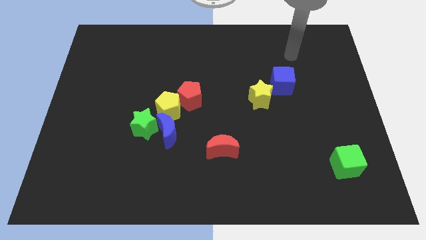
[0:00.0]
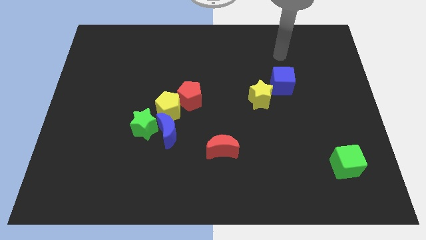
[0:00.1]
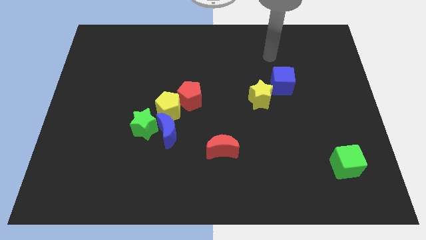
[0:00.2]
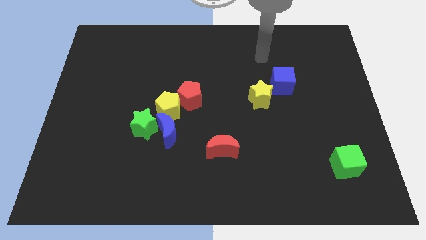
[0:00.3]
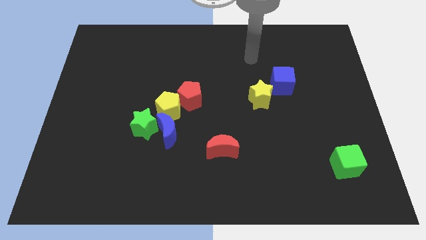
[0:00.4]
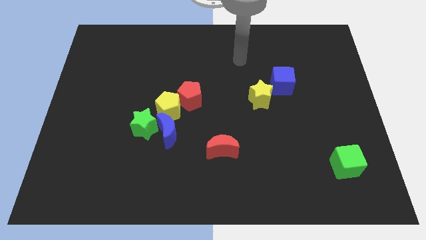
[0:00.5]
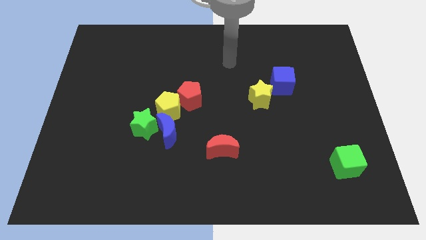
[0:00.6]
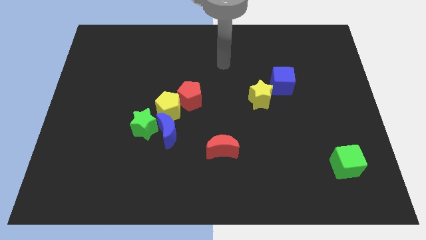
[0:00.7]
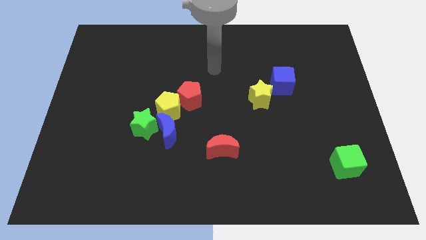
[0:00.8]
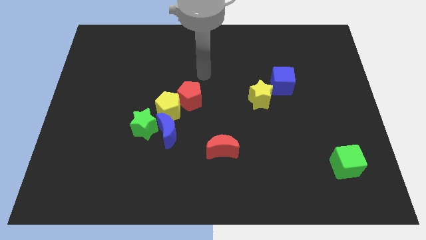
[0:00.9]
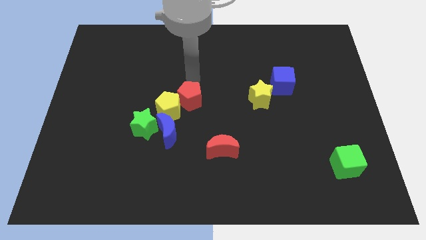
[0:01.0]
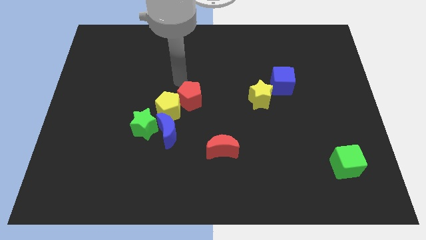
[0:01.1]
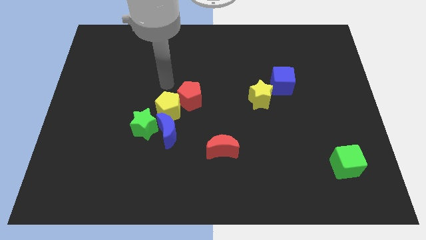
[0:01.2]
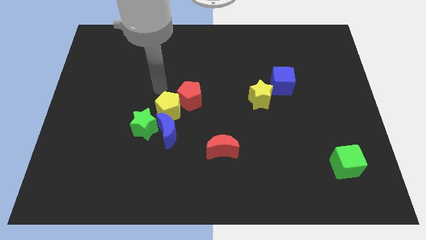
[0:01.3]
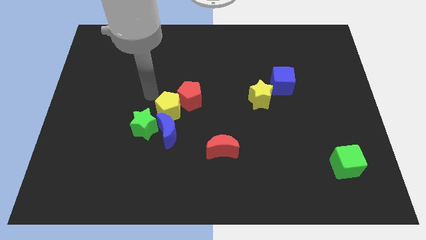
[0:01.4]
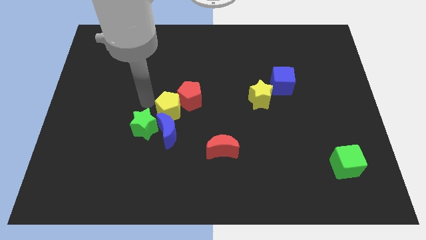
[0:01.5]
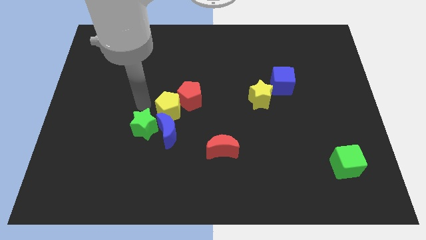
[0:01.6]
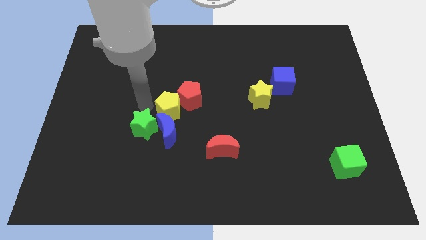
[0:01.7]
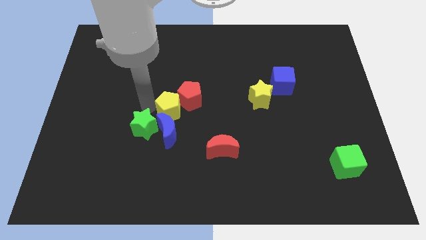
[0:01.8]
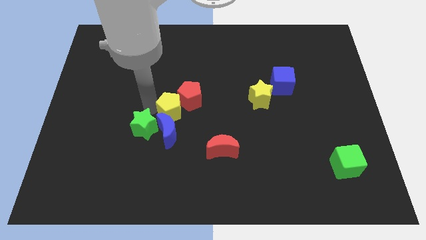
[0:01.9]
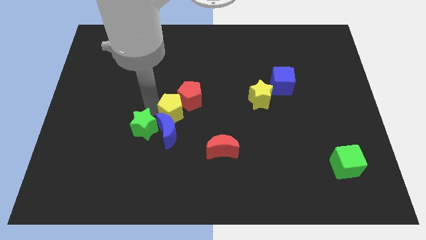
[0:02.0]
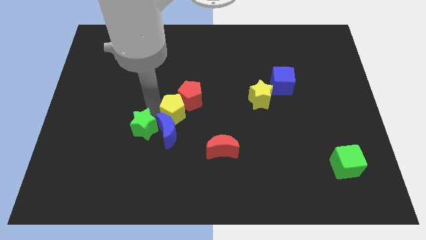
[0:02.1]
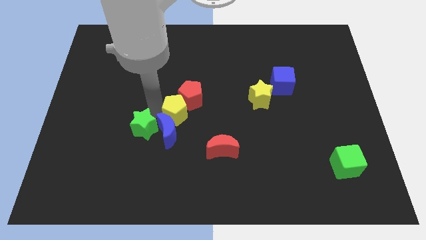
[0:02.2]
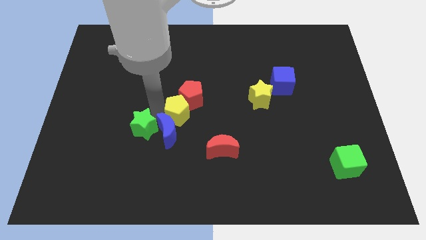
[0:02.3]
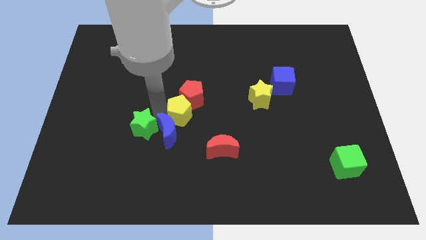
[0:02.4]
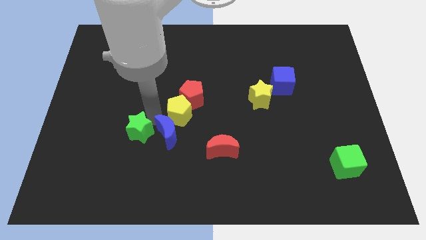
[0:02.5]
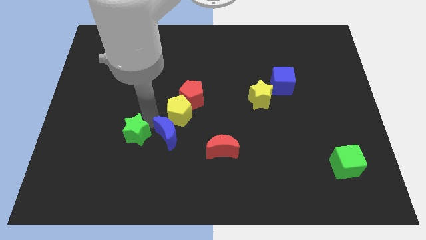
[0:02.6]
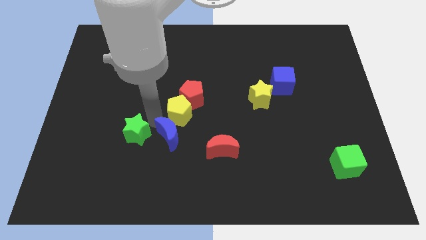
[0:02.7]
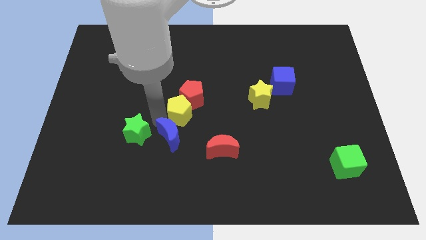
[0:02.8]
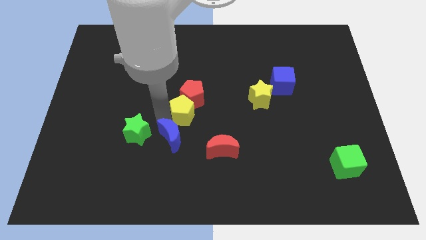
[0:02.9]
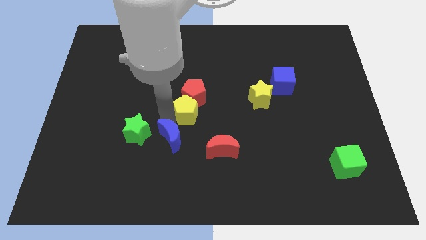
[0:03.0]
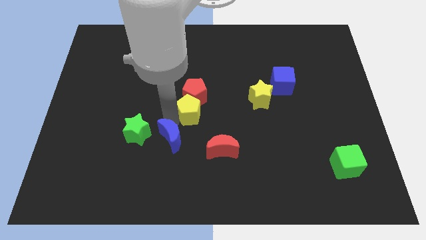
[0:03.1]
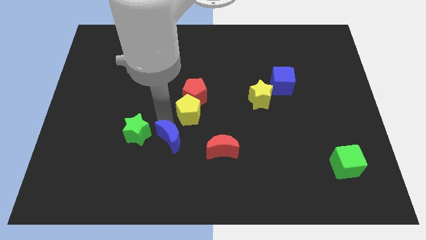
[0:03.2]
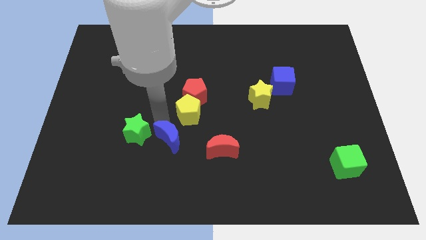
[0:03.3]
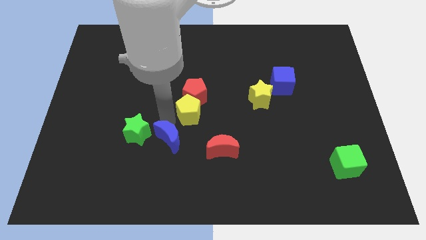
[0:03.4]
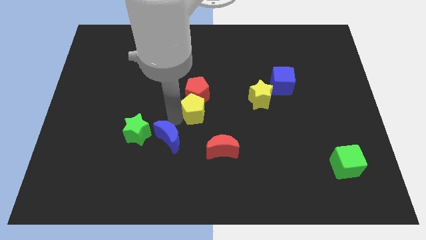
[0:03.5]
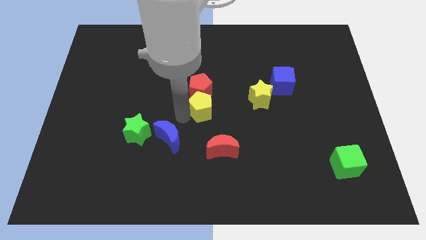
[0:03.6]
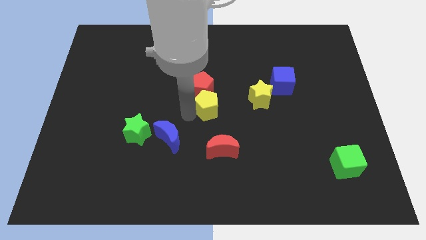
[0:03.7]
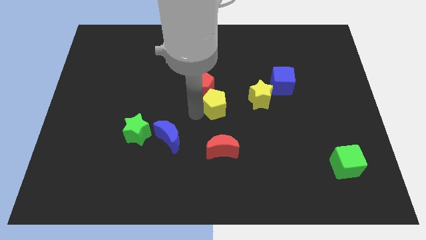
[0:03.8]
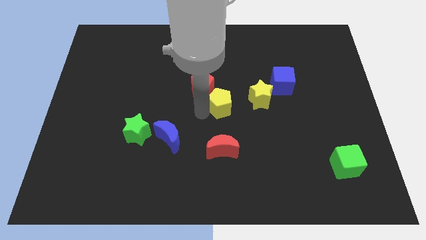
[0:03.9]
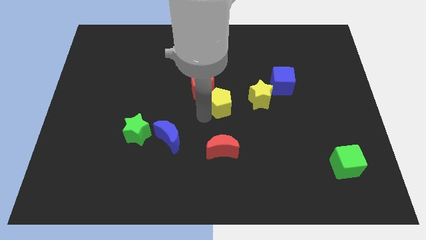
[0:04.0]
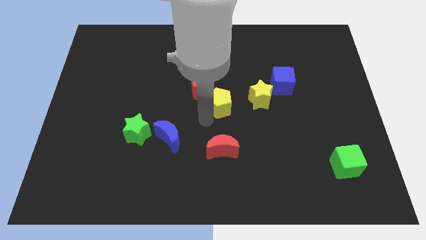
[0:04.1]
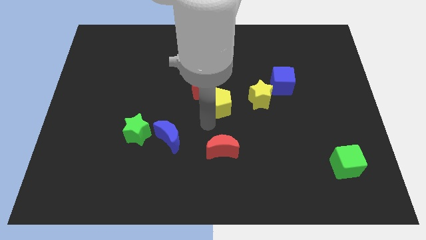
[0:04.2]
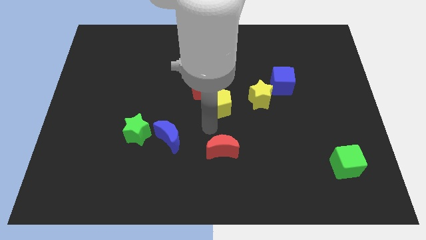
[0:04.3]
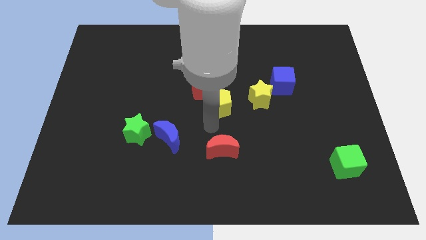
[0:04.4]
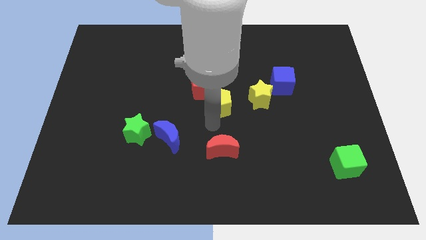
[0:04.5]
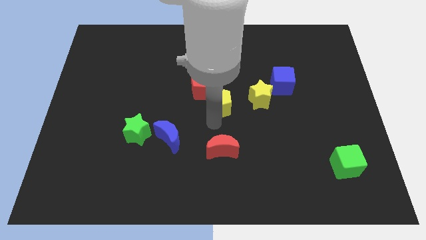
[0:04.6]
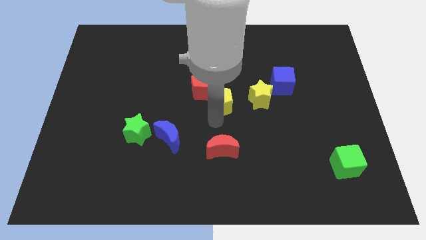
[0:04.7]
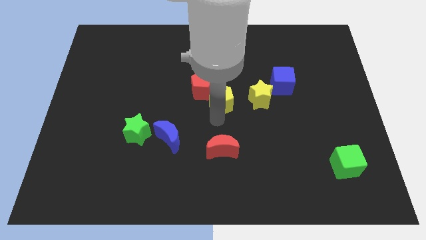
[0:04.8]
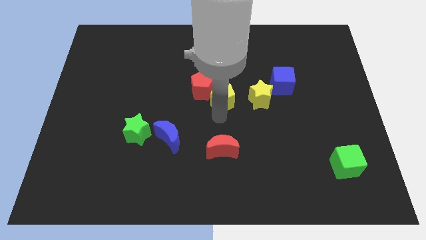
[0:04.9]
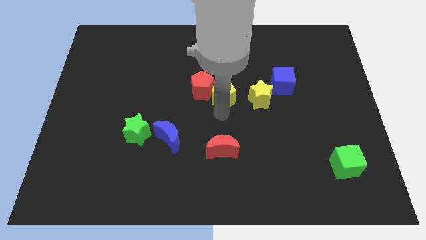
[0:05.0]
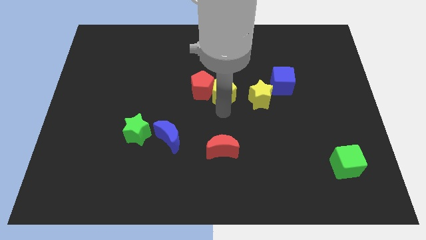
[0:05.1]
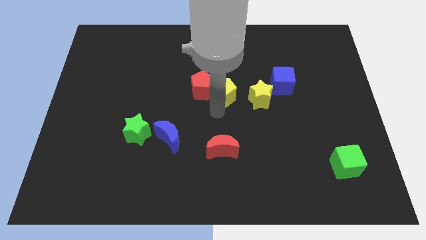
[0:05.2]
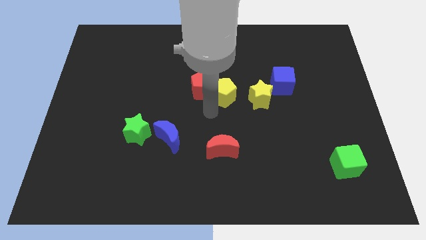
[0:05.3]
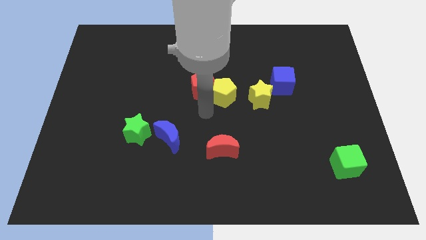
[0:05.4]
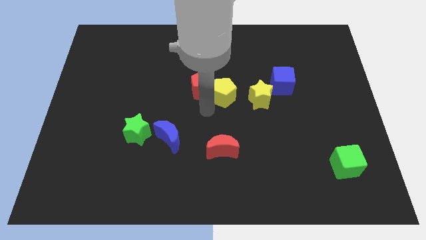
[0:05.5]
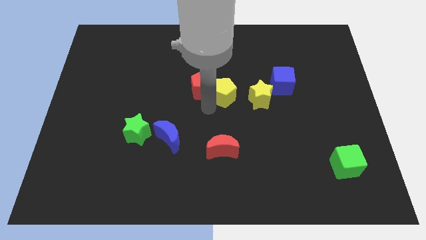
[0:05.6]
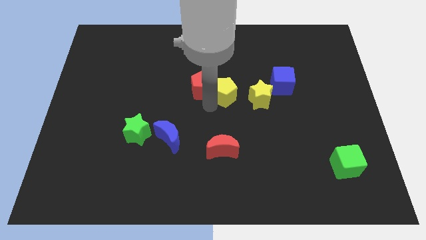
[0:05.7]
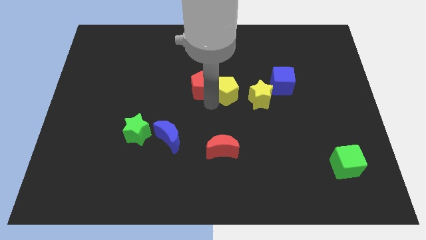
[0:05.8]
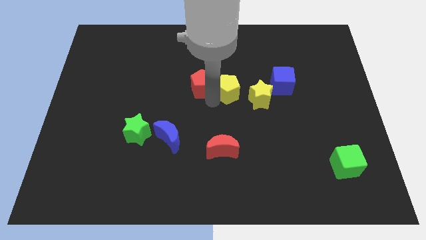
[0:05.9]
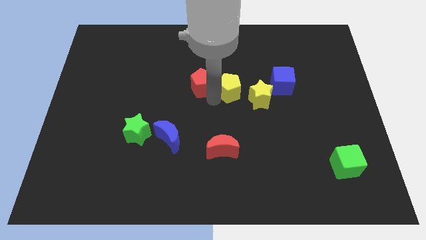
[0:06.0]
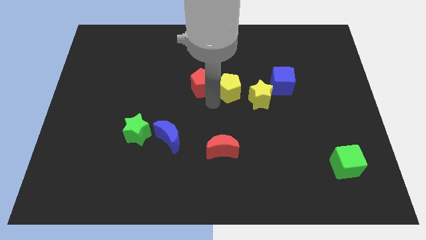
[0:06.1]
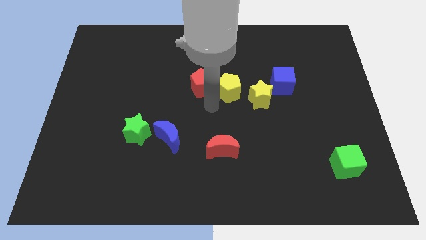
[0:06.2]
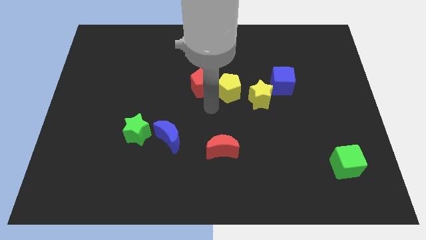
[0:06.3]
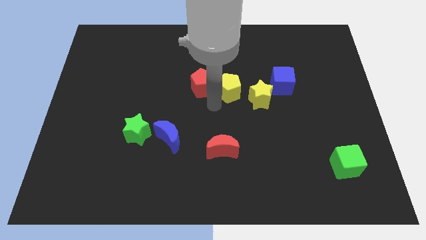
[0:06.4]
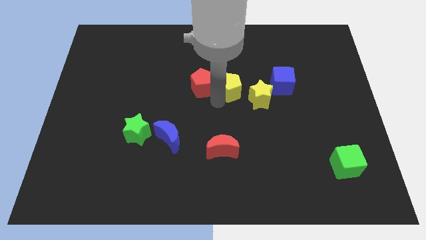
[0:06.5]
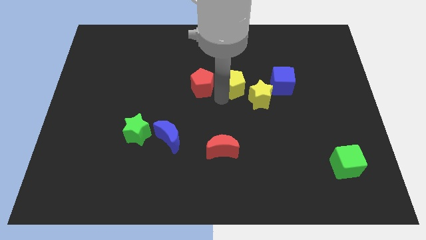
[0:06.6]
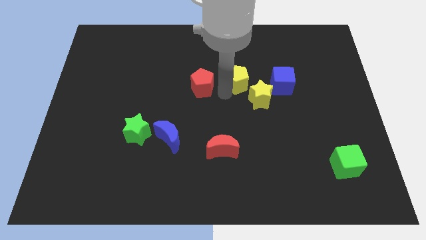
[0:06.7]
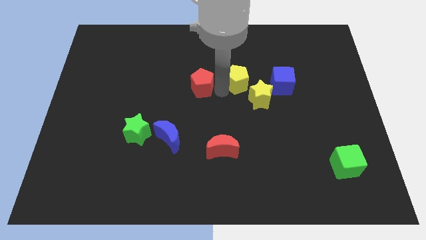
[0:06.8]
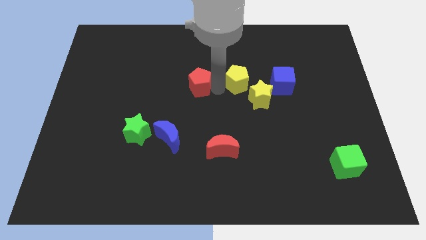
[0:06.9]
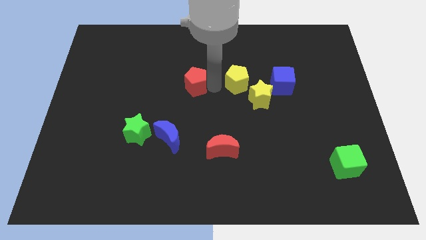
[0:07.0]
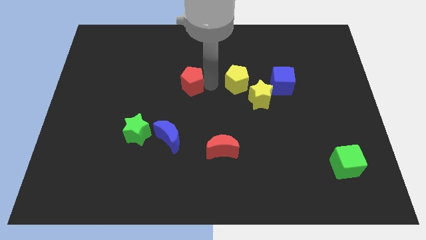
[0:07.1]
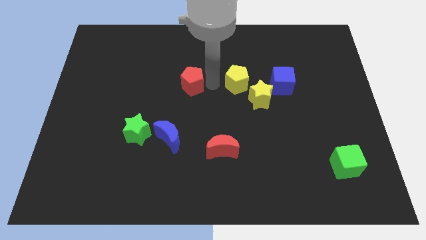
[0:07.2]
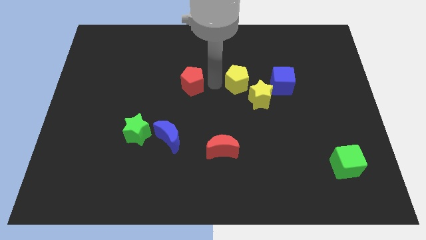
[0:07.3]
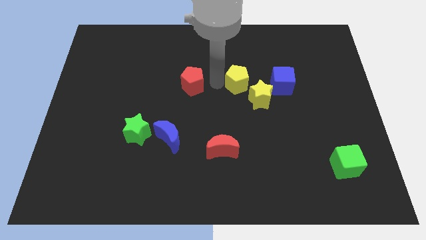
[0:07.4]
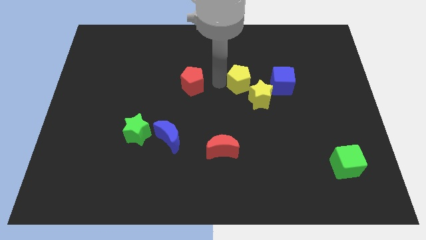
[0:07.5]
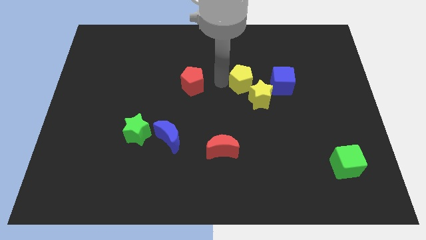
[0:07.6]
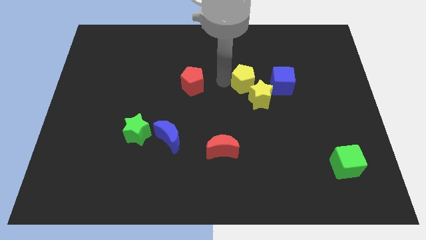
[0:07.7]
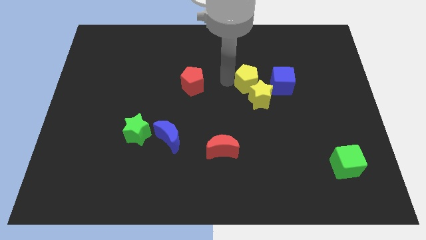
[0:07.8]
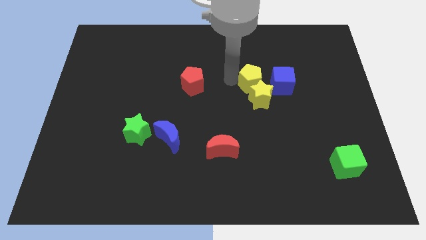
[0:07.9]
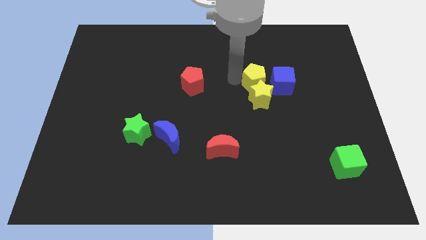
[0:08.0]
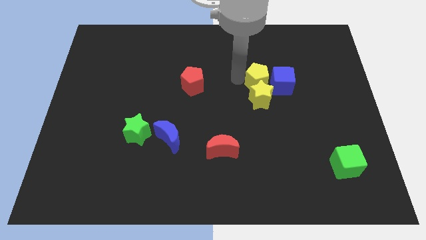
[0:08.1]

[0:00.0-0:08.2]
slide the yellow pentagon next to the blue cube
